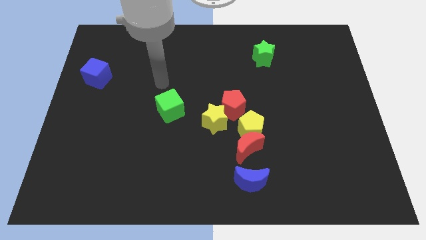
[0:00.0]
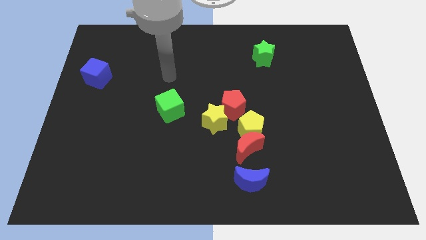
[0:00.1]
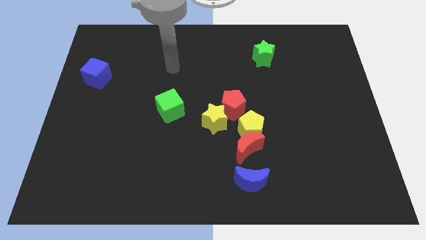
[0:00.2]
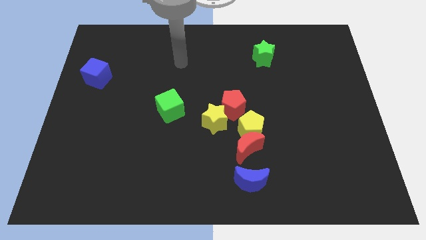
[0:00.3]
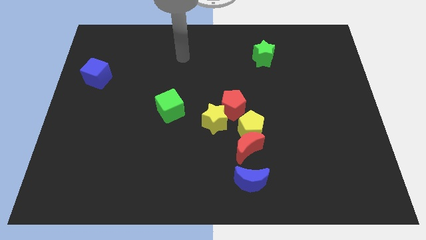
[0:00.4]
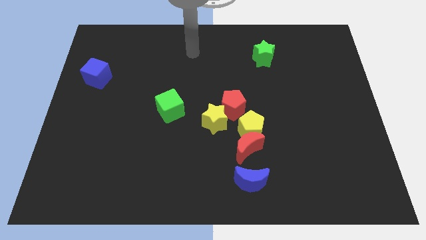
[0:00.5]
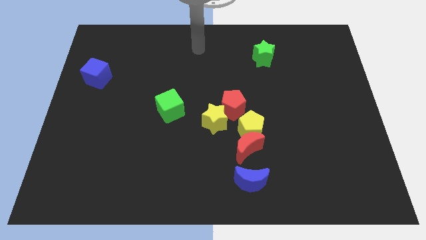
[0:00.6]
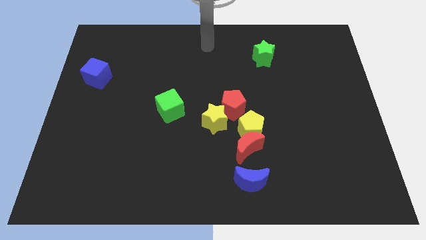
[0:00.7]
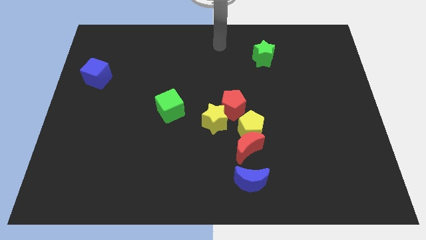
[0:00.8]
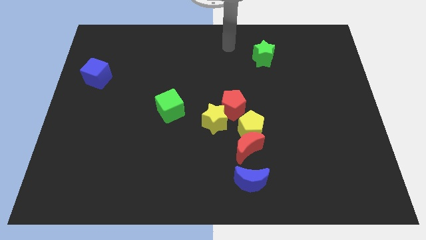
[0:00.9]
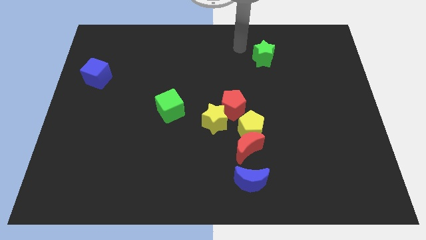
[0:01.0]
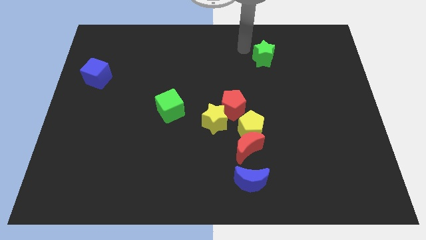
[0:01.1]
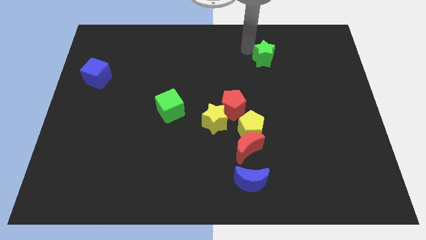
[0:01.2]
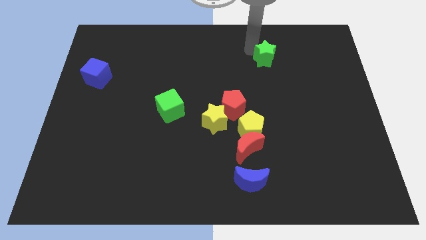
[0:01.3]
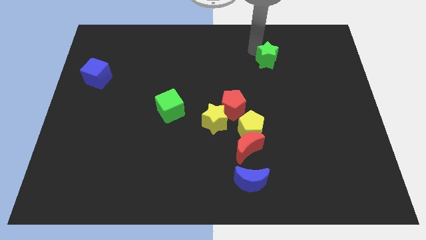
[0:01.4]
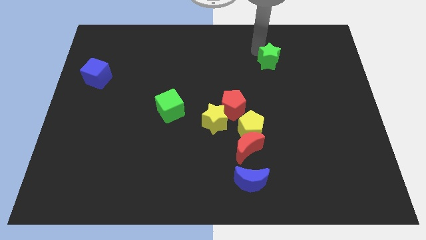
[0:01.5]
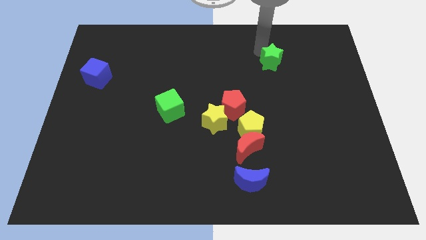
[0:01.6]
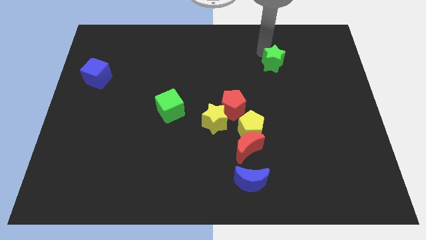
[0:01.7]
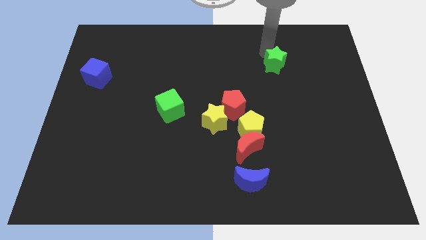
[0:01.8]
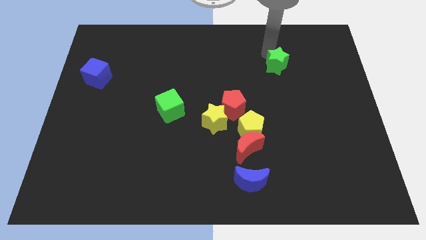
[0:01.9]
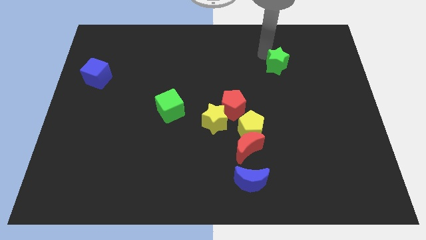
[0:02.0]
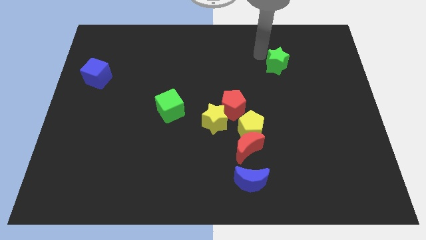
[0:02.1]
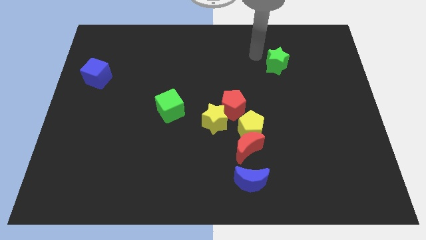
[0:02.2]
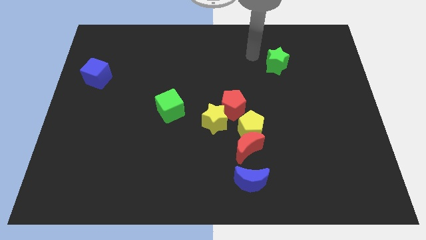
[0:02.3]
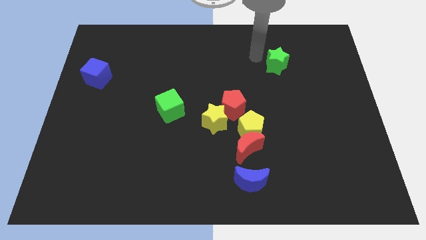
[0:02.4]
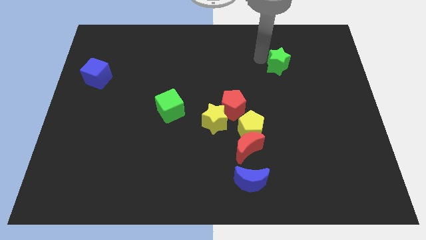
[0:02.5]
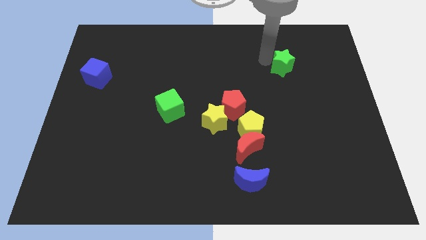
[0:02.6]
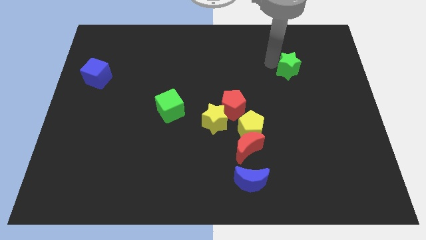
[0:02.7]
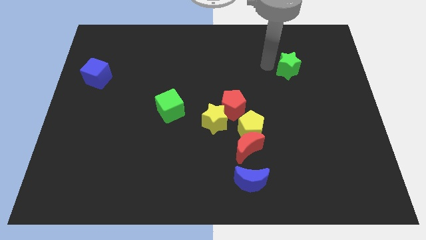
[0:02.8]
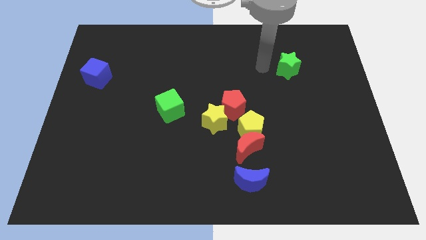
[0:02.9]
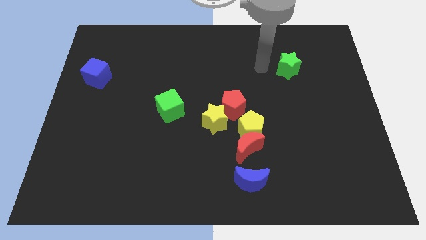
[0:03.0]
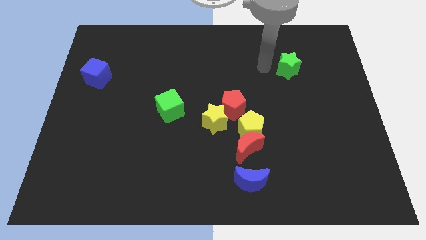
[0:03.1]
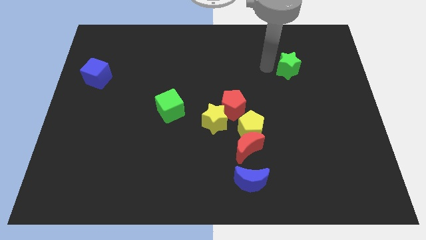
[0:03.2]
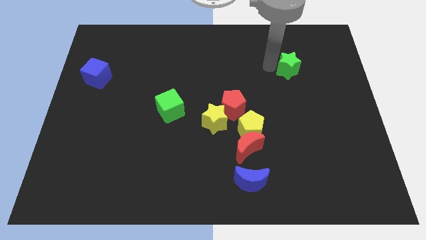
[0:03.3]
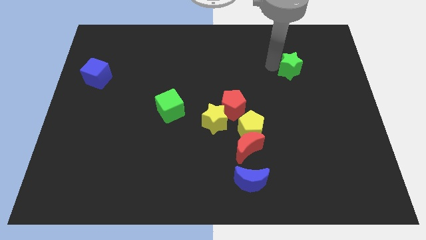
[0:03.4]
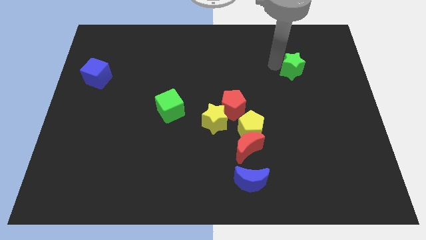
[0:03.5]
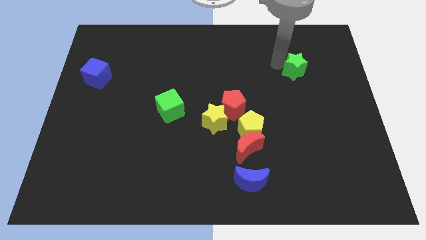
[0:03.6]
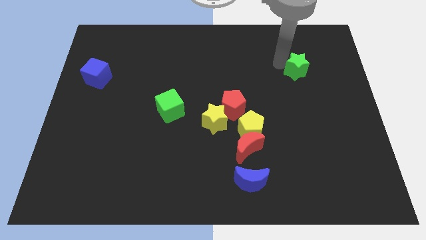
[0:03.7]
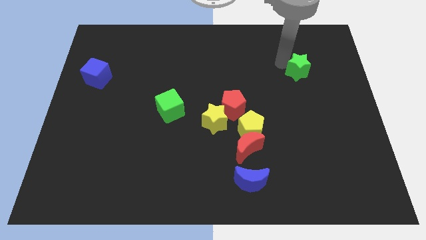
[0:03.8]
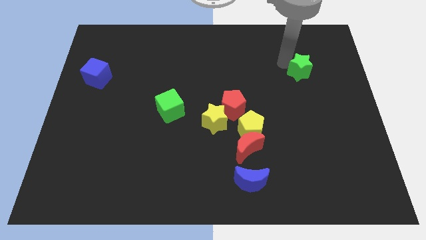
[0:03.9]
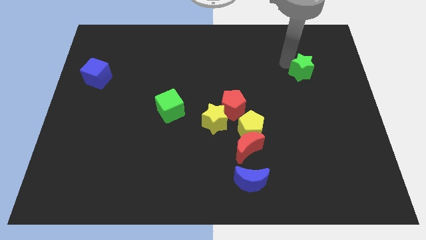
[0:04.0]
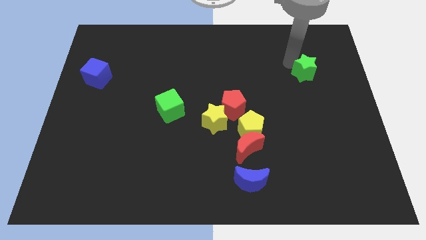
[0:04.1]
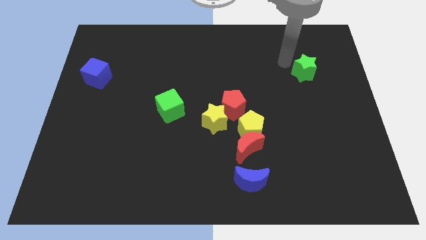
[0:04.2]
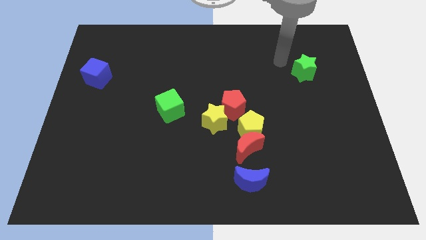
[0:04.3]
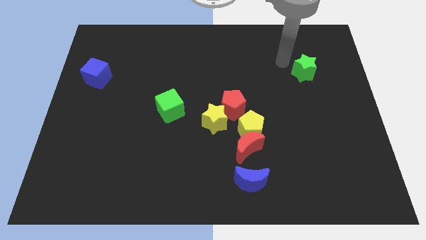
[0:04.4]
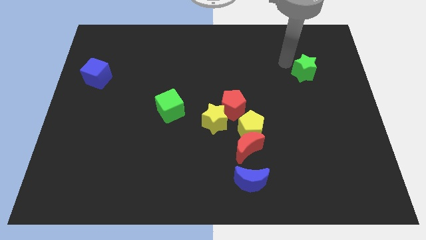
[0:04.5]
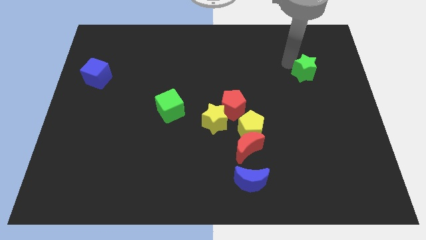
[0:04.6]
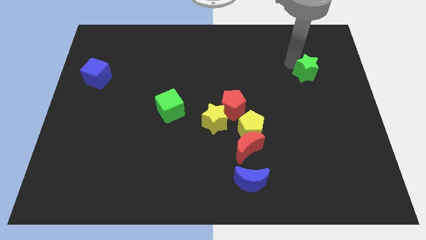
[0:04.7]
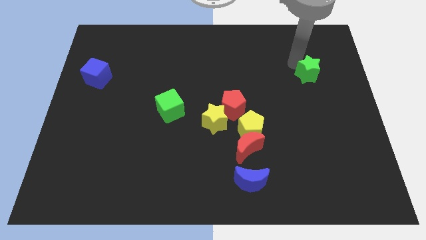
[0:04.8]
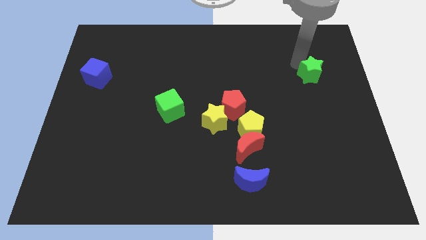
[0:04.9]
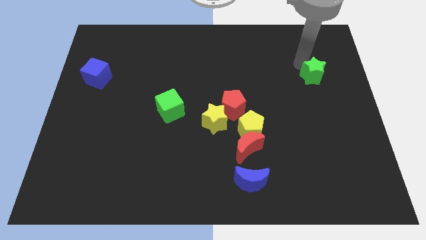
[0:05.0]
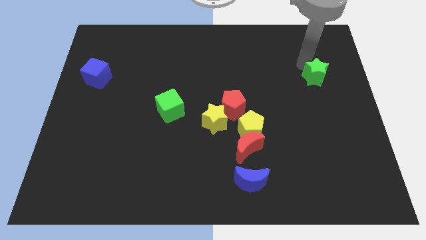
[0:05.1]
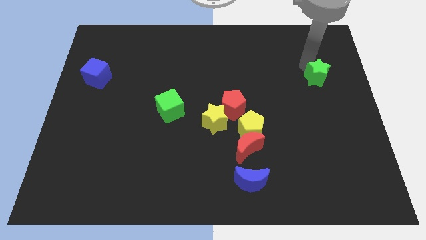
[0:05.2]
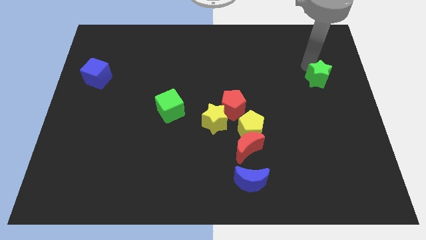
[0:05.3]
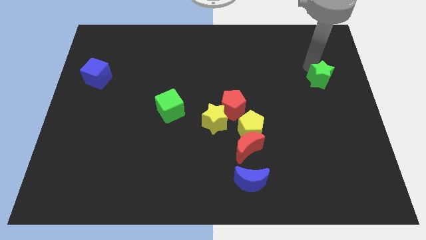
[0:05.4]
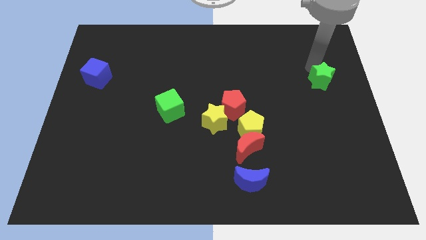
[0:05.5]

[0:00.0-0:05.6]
push the green star to the right side of the board

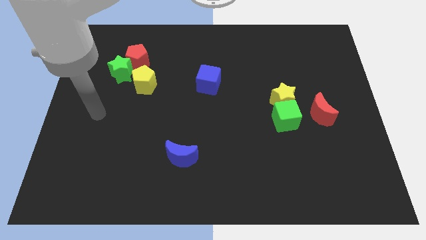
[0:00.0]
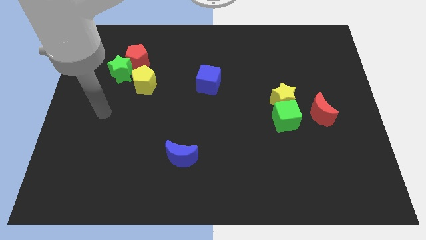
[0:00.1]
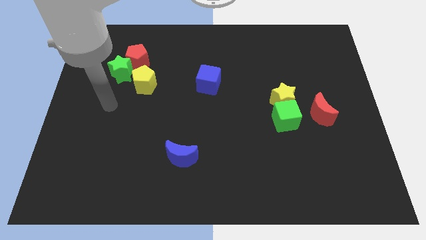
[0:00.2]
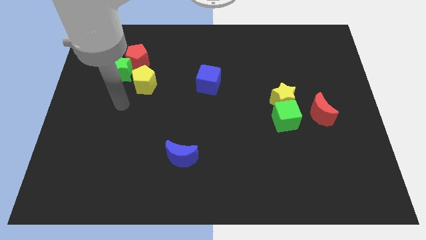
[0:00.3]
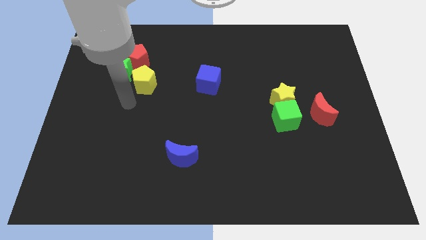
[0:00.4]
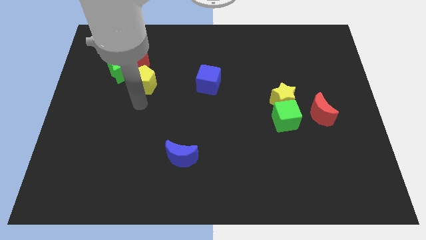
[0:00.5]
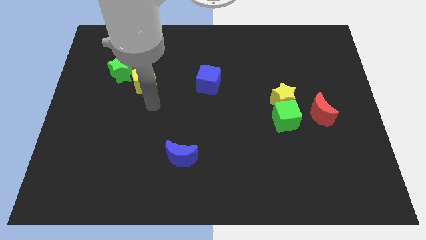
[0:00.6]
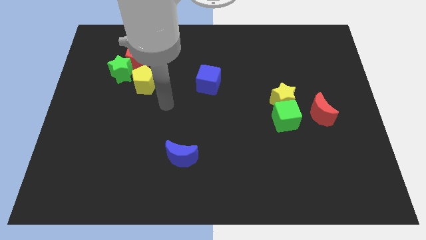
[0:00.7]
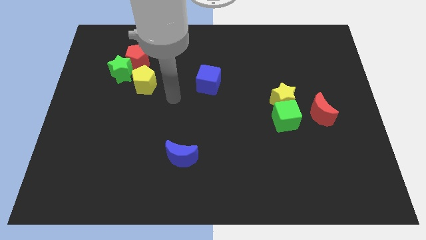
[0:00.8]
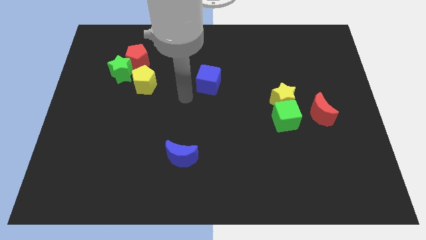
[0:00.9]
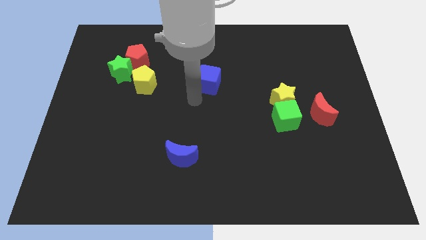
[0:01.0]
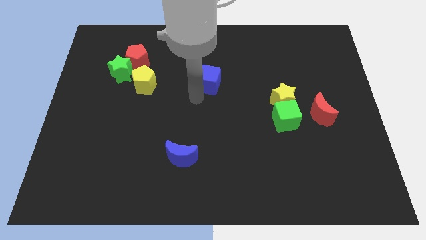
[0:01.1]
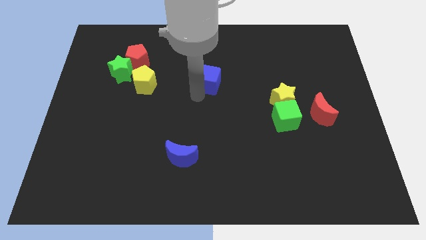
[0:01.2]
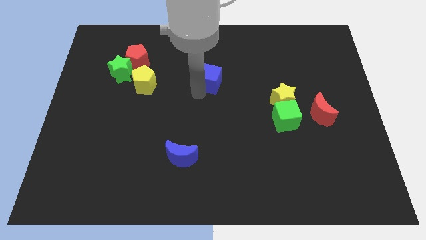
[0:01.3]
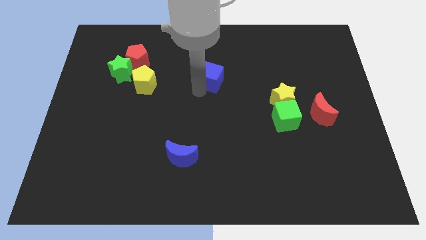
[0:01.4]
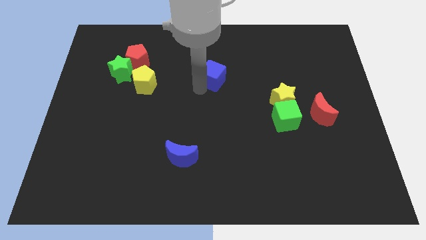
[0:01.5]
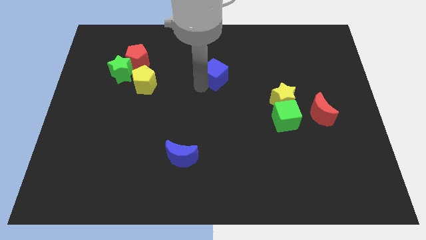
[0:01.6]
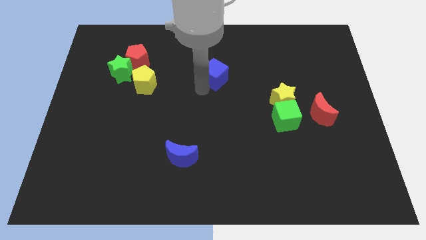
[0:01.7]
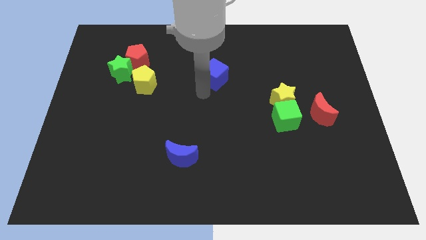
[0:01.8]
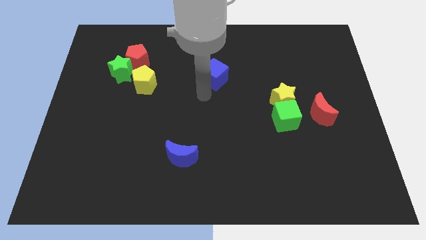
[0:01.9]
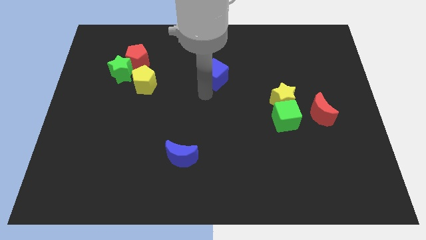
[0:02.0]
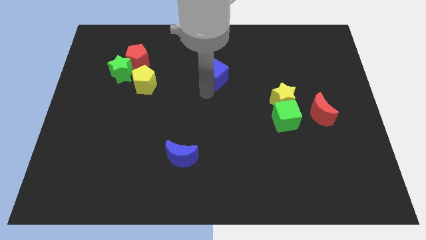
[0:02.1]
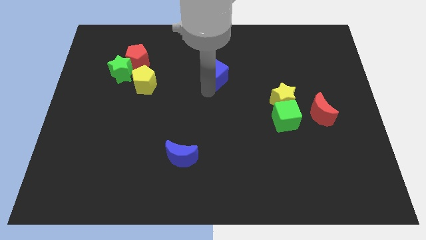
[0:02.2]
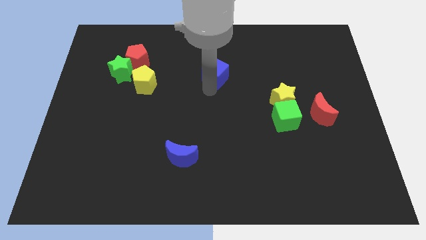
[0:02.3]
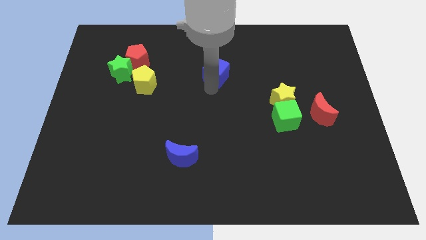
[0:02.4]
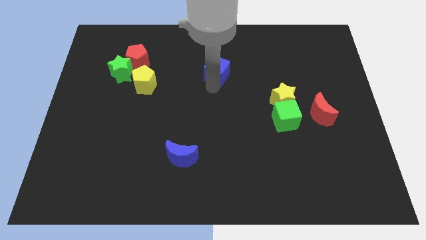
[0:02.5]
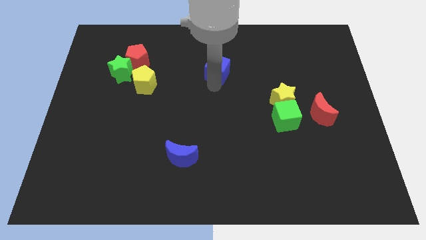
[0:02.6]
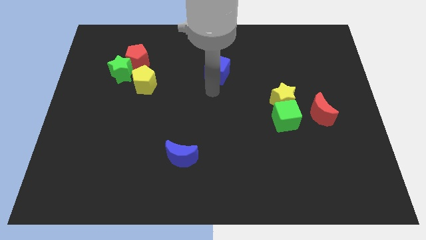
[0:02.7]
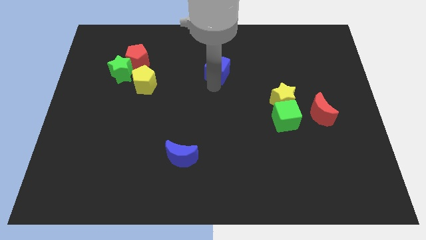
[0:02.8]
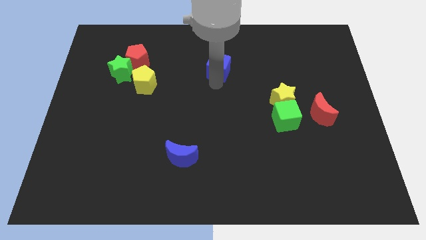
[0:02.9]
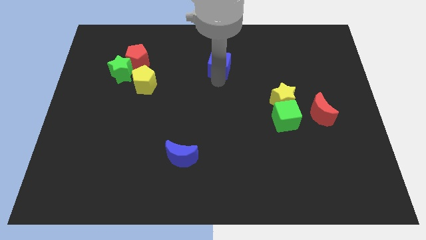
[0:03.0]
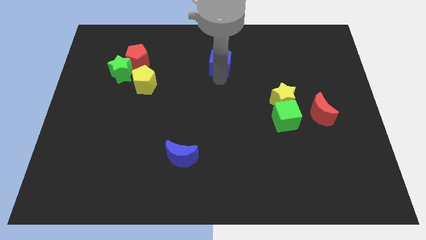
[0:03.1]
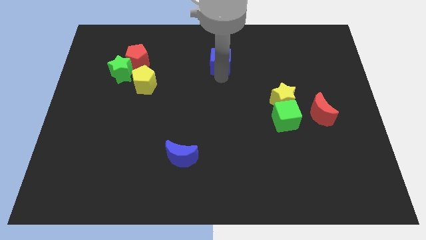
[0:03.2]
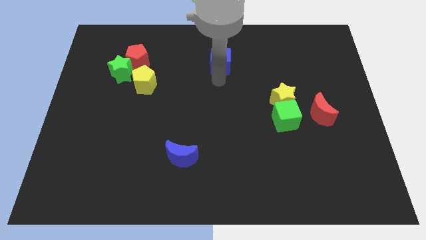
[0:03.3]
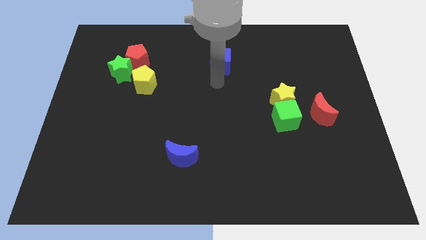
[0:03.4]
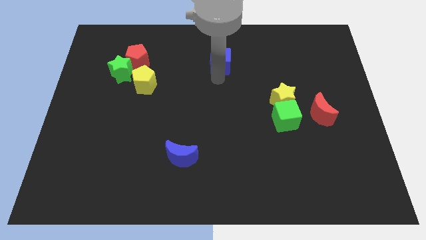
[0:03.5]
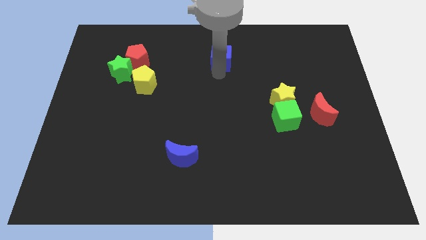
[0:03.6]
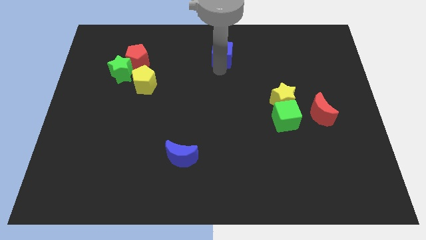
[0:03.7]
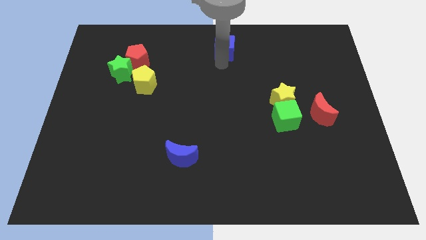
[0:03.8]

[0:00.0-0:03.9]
move the blue cube to the top side
